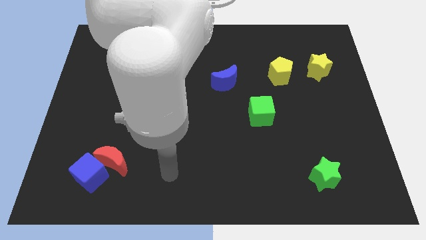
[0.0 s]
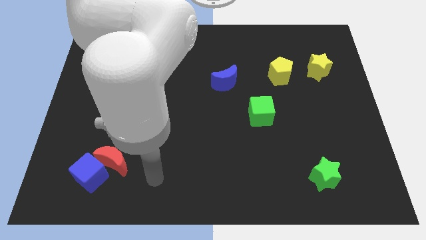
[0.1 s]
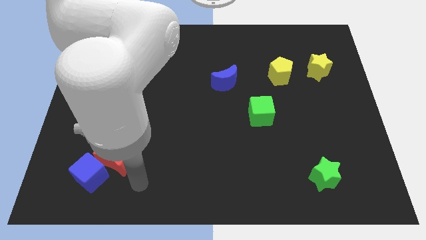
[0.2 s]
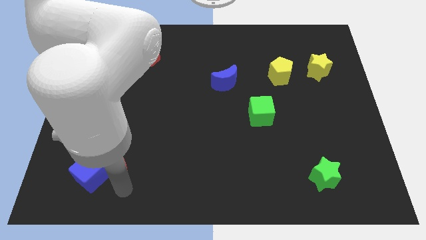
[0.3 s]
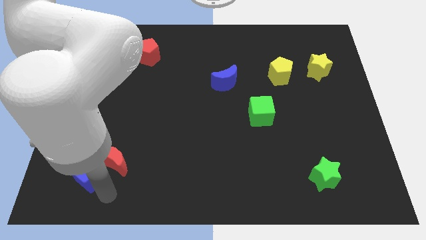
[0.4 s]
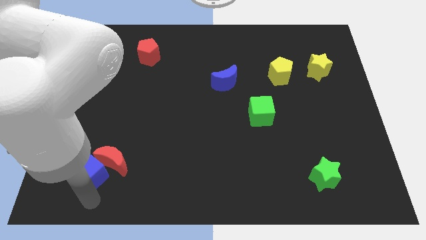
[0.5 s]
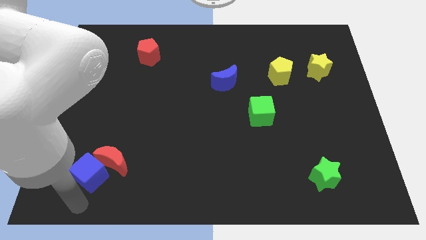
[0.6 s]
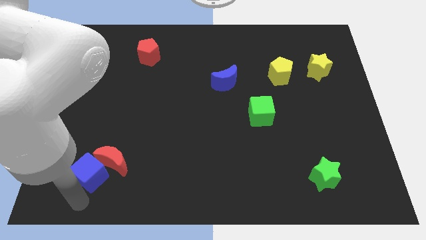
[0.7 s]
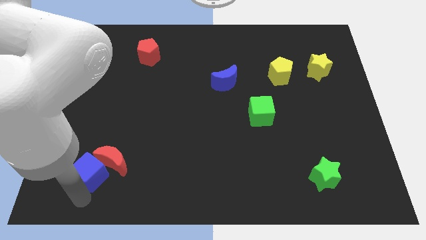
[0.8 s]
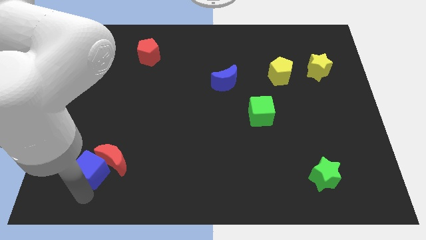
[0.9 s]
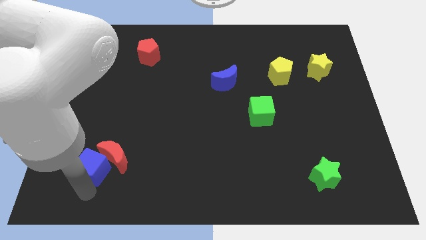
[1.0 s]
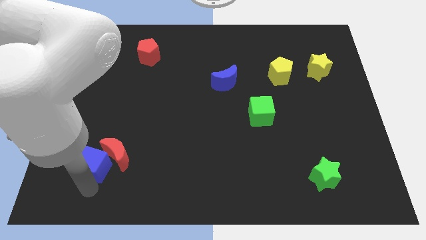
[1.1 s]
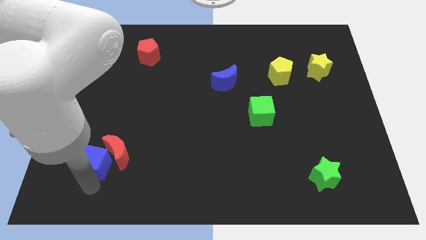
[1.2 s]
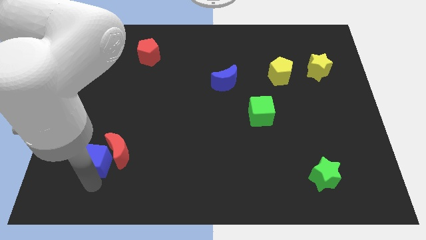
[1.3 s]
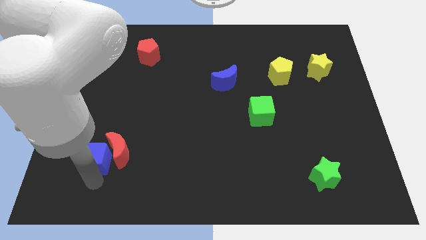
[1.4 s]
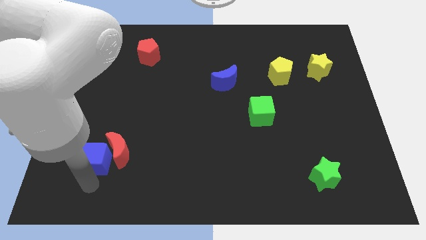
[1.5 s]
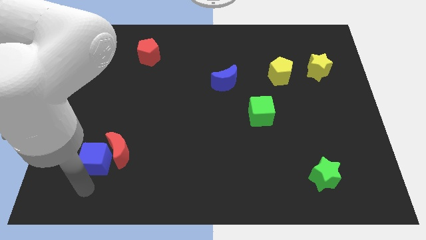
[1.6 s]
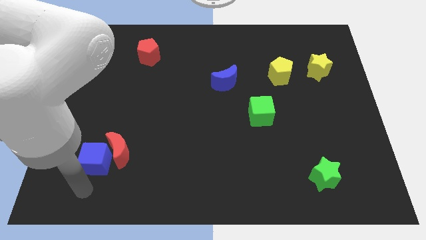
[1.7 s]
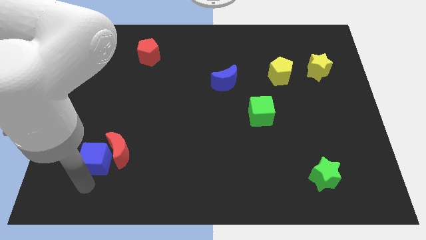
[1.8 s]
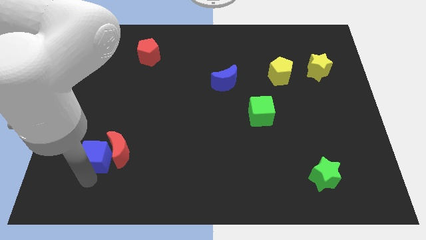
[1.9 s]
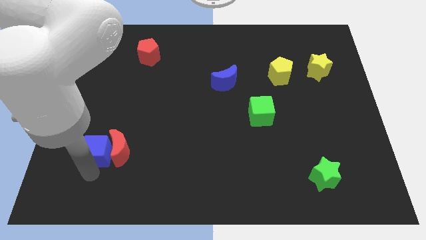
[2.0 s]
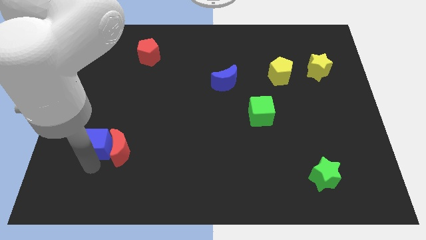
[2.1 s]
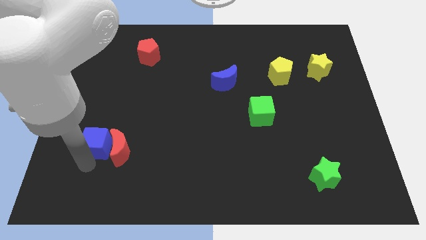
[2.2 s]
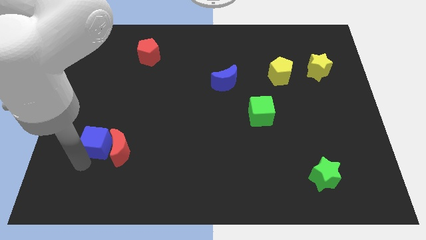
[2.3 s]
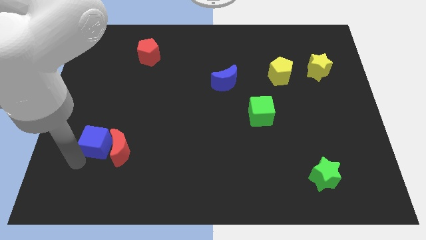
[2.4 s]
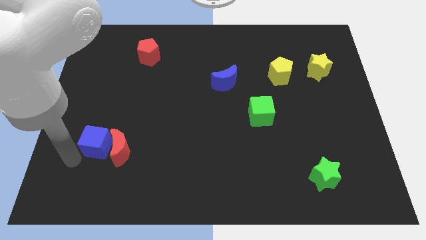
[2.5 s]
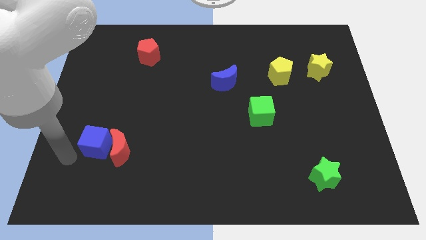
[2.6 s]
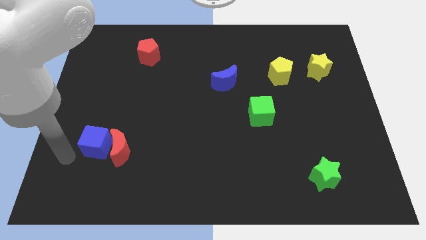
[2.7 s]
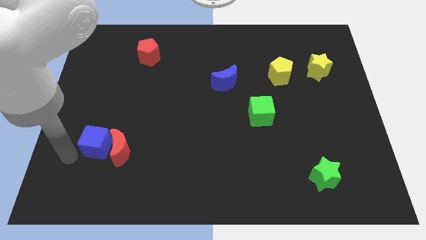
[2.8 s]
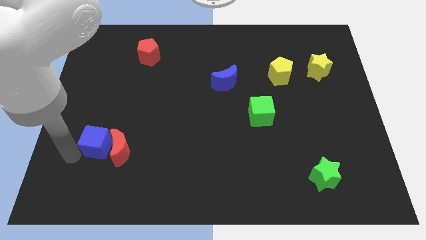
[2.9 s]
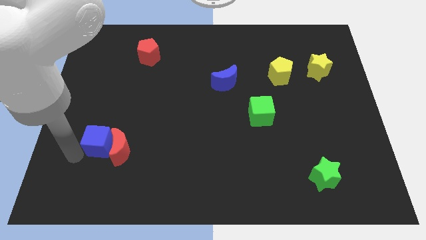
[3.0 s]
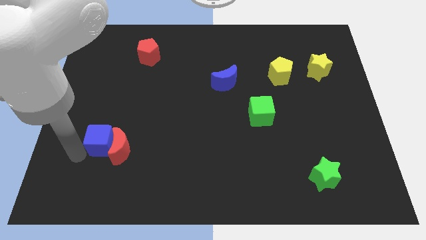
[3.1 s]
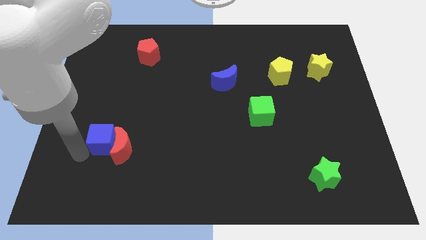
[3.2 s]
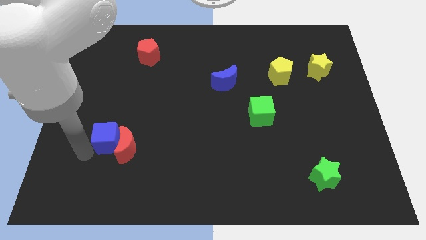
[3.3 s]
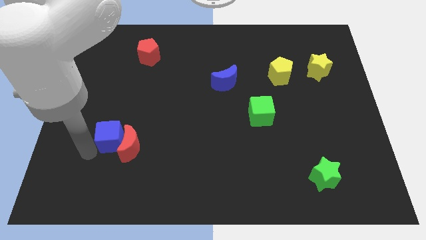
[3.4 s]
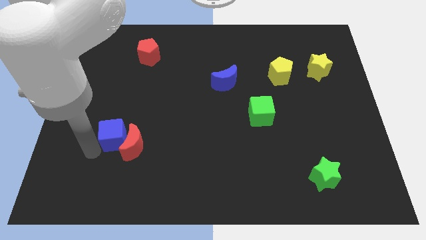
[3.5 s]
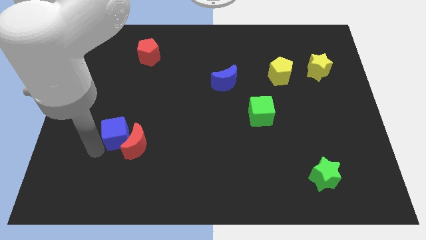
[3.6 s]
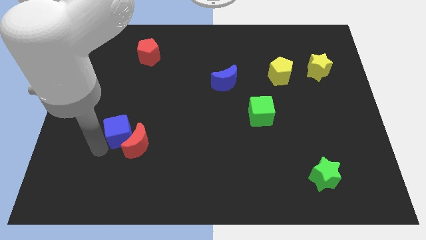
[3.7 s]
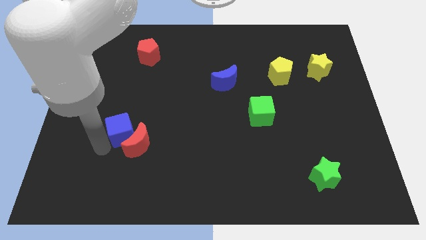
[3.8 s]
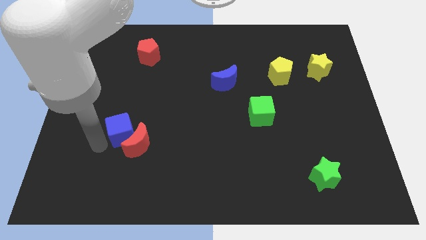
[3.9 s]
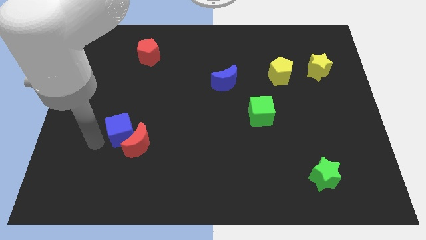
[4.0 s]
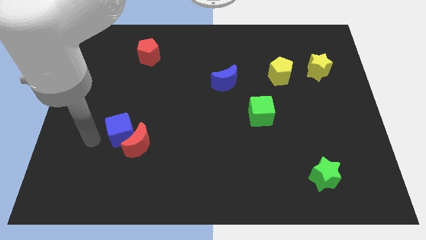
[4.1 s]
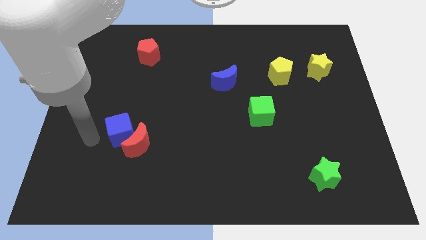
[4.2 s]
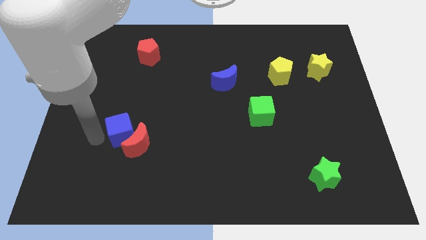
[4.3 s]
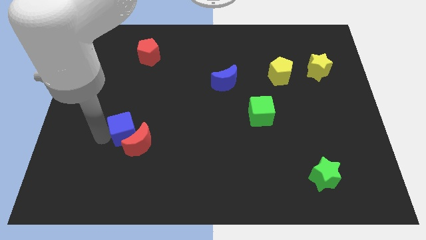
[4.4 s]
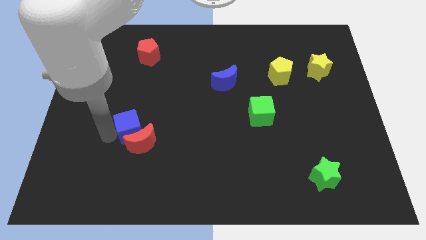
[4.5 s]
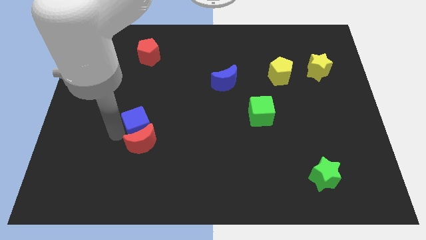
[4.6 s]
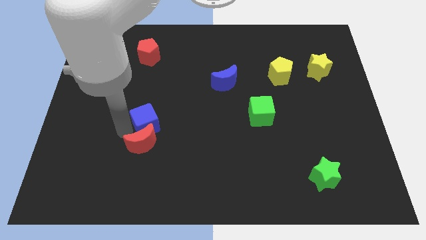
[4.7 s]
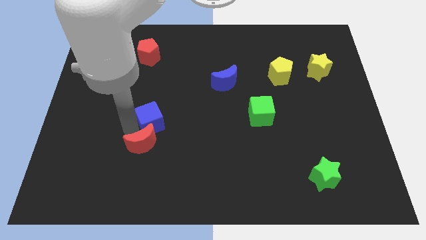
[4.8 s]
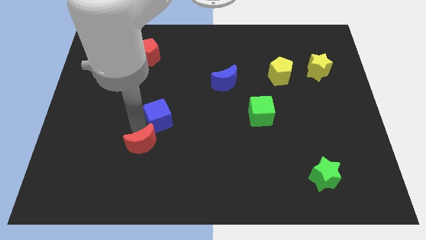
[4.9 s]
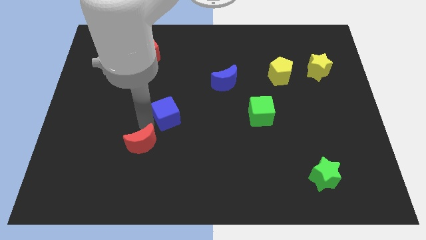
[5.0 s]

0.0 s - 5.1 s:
push the blue cube to the middle of the board

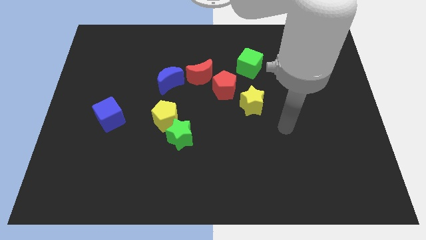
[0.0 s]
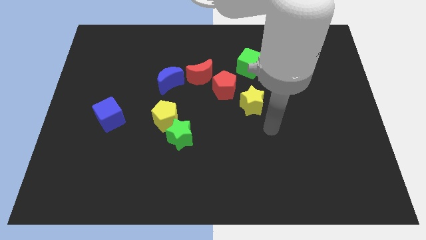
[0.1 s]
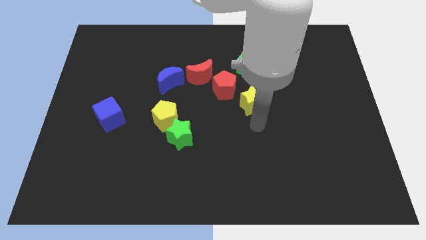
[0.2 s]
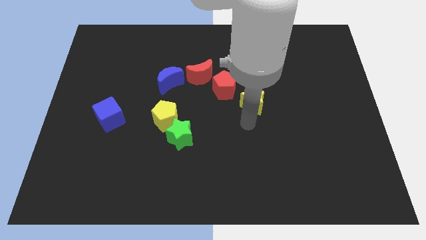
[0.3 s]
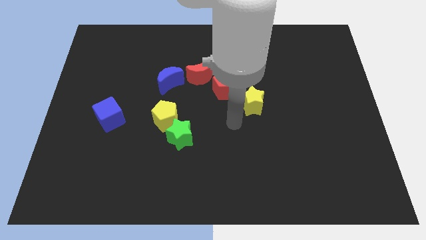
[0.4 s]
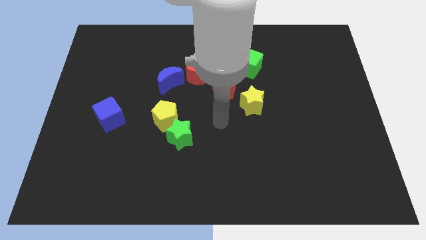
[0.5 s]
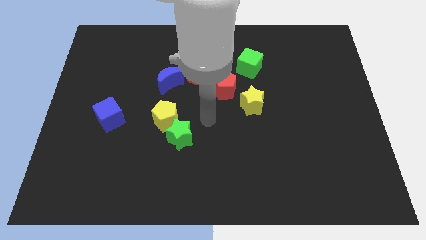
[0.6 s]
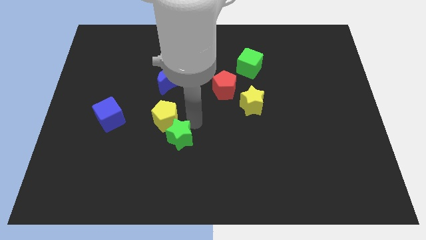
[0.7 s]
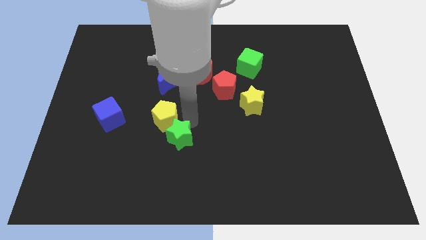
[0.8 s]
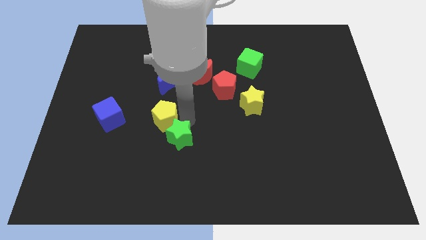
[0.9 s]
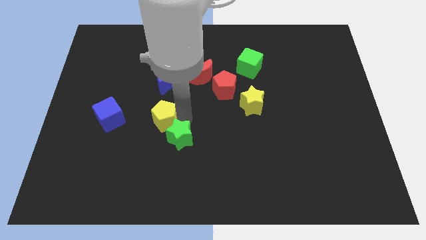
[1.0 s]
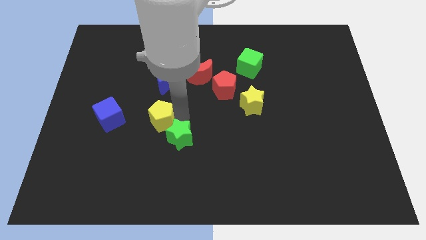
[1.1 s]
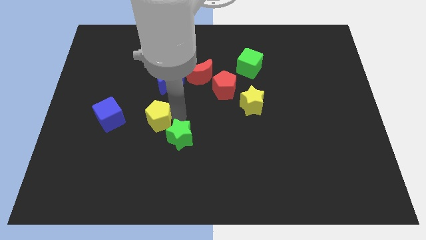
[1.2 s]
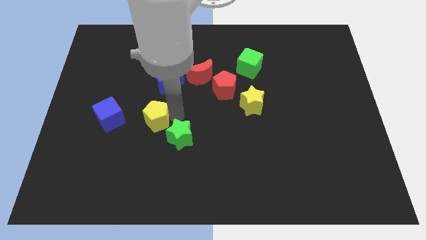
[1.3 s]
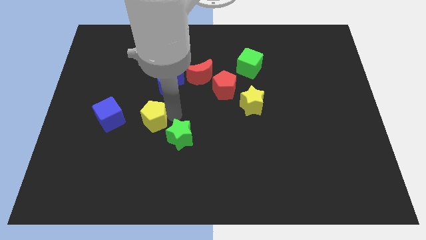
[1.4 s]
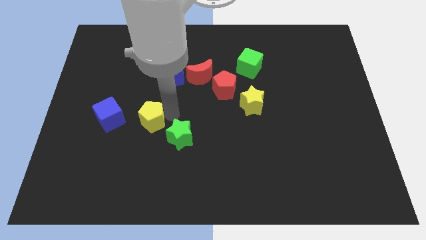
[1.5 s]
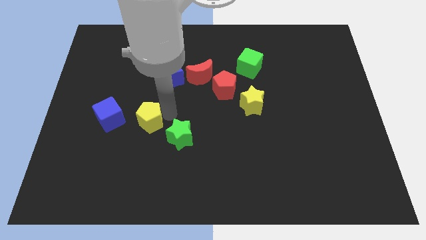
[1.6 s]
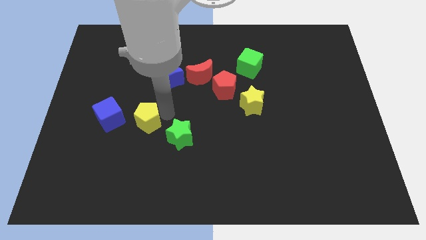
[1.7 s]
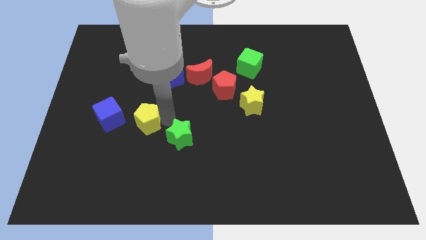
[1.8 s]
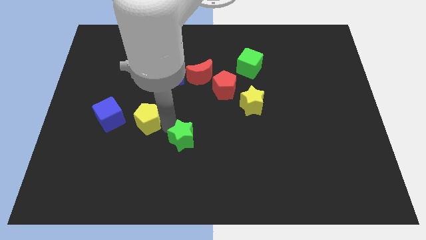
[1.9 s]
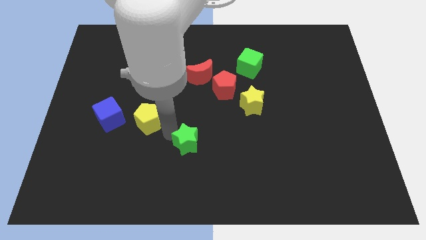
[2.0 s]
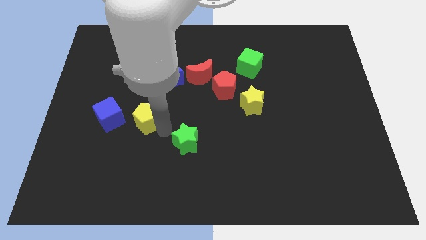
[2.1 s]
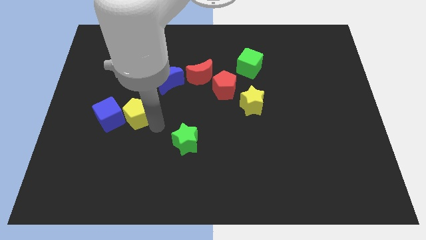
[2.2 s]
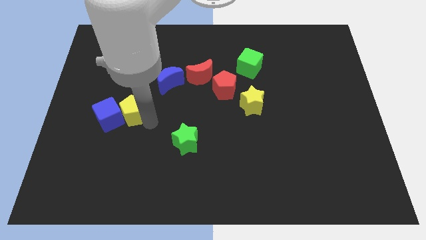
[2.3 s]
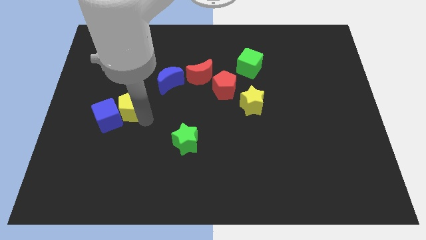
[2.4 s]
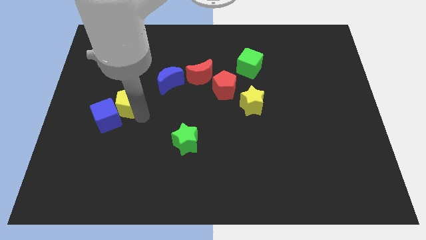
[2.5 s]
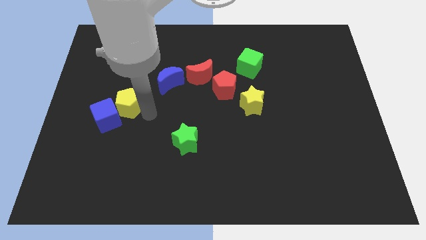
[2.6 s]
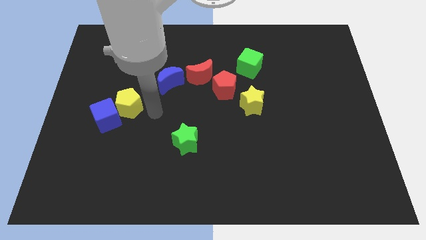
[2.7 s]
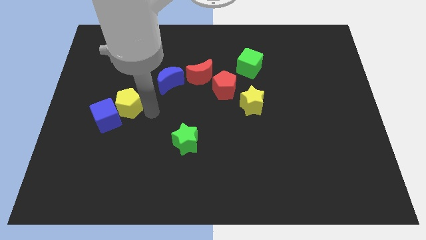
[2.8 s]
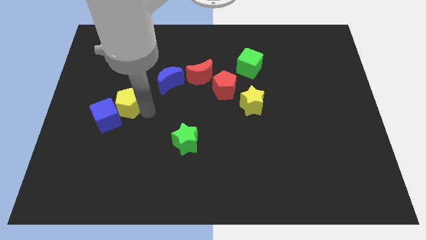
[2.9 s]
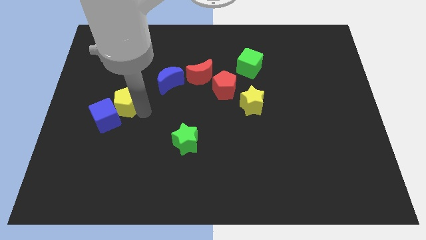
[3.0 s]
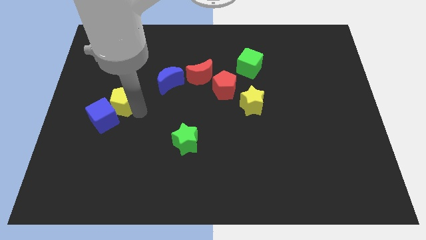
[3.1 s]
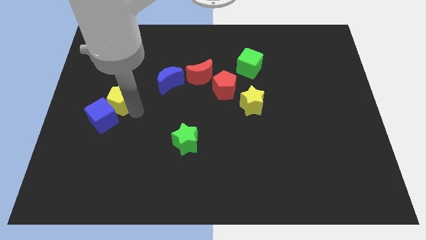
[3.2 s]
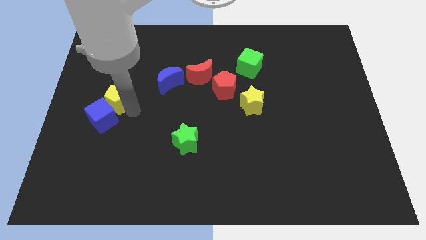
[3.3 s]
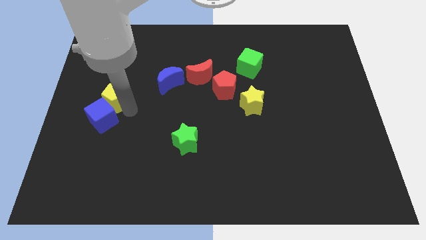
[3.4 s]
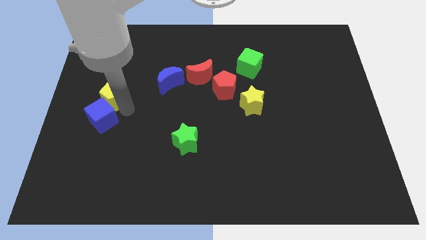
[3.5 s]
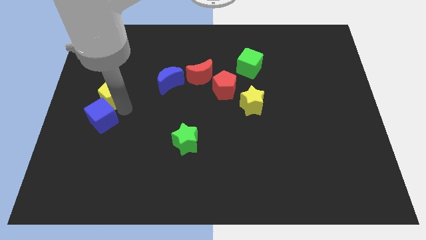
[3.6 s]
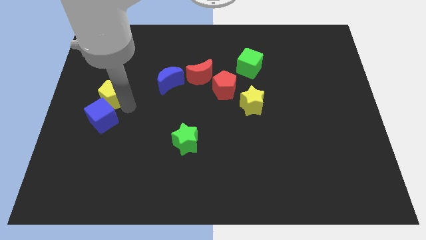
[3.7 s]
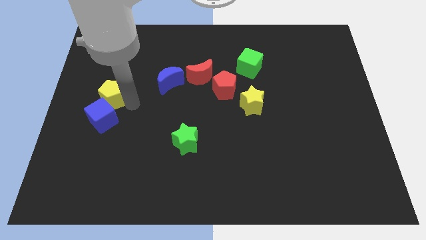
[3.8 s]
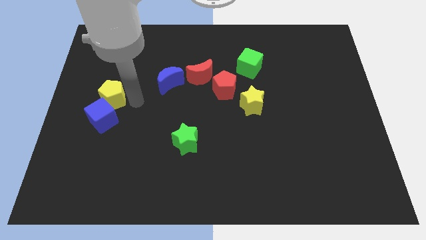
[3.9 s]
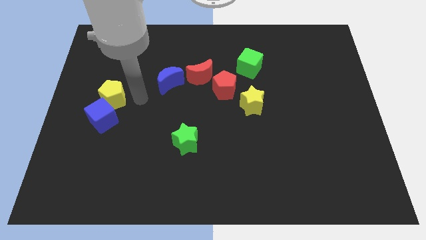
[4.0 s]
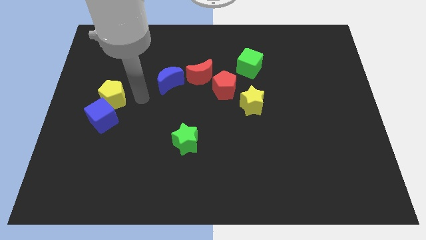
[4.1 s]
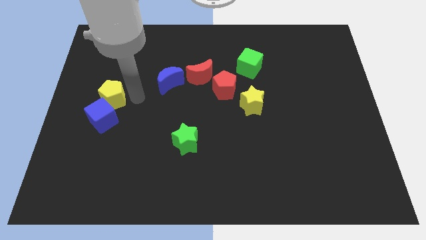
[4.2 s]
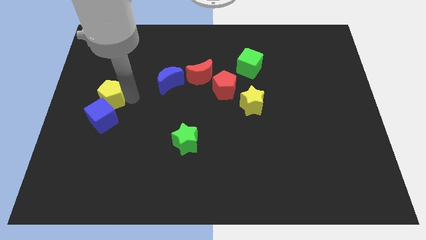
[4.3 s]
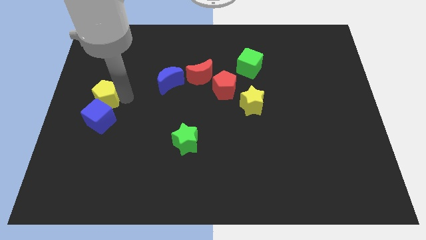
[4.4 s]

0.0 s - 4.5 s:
slide the yellow pentagon to the center left
